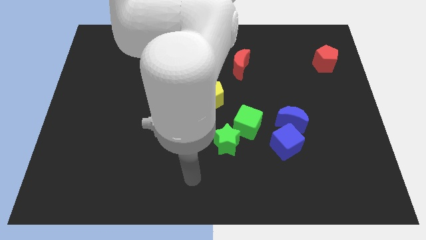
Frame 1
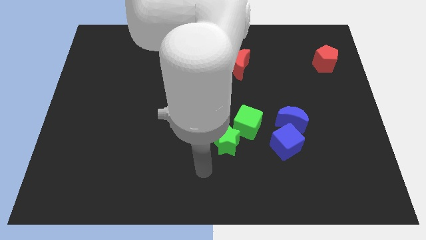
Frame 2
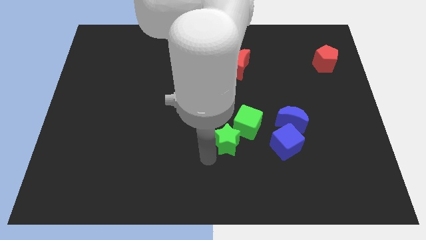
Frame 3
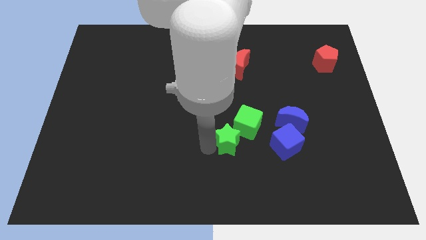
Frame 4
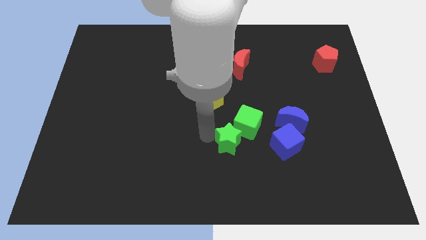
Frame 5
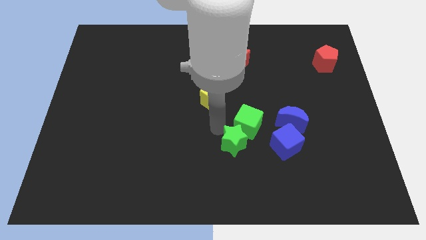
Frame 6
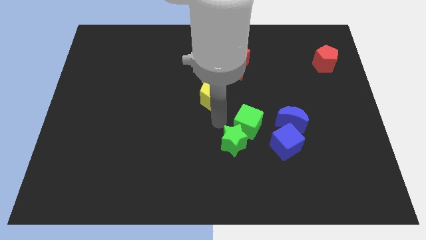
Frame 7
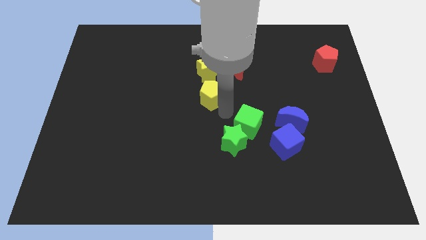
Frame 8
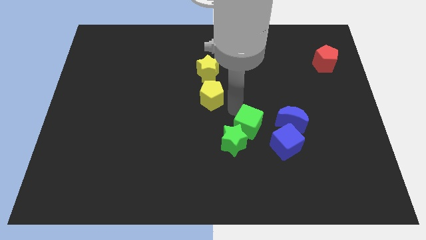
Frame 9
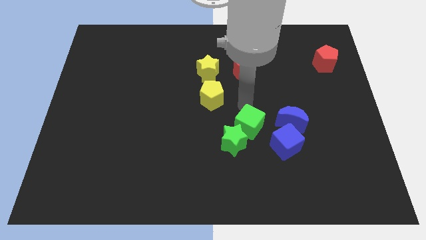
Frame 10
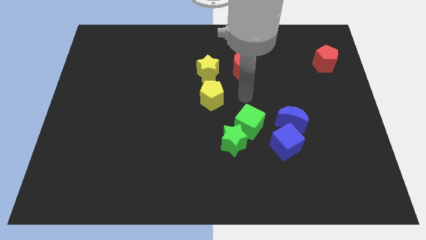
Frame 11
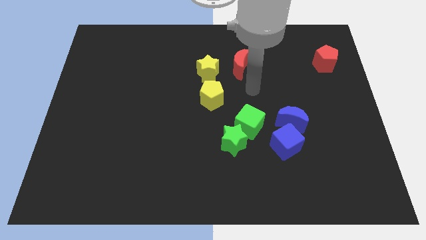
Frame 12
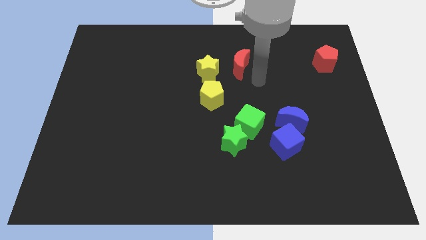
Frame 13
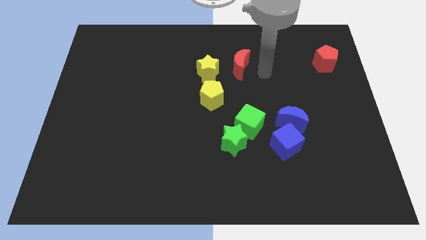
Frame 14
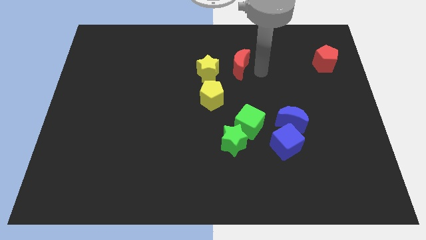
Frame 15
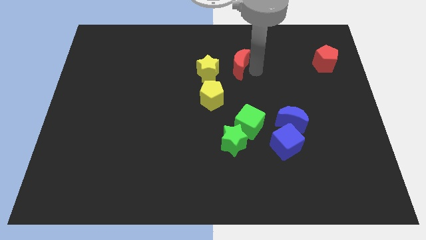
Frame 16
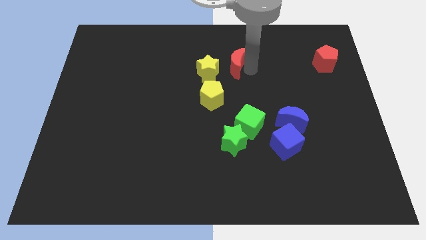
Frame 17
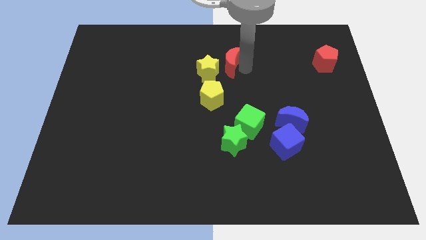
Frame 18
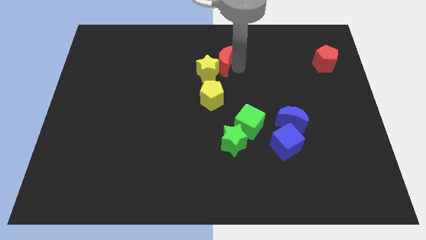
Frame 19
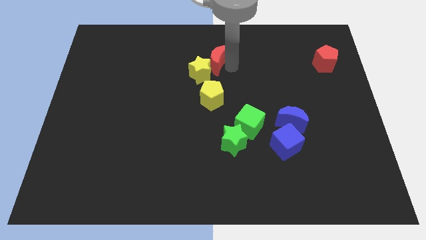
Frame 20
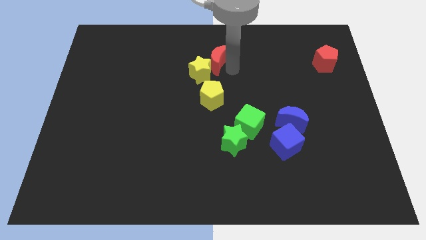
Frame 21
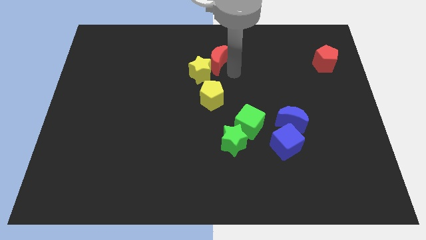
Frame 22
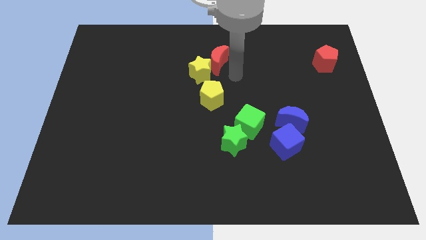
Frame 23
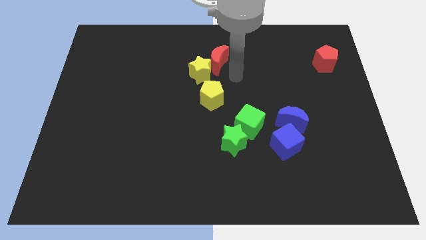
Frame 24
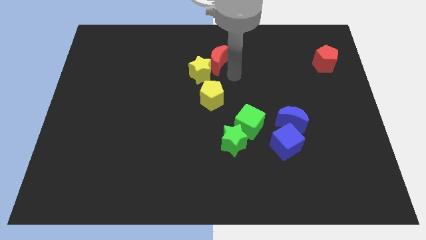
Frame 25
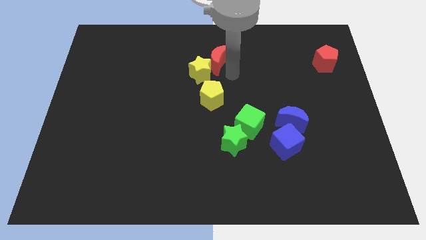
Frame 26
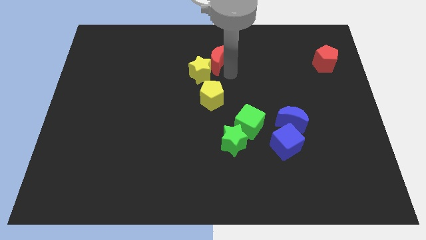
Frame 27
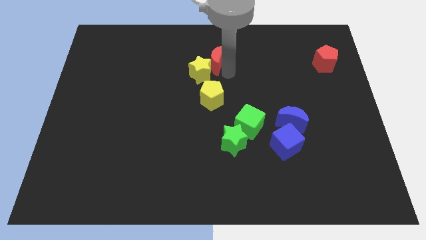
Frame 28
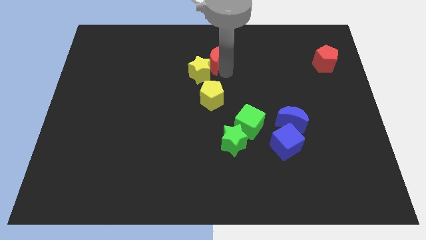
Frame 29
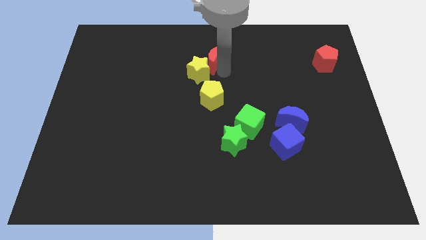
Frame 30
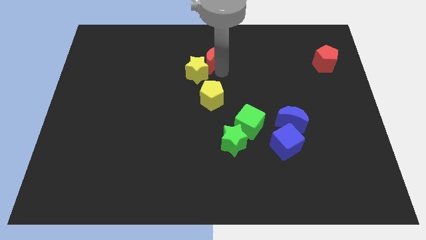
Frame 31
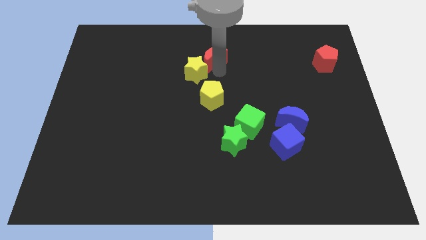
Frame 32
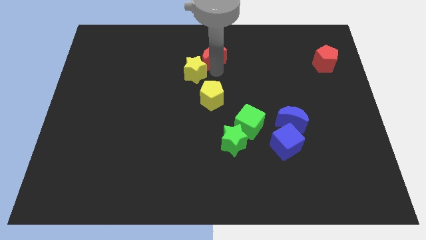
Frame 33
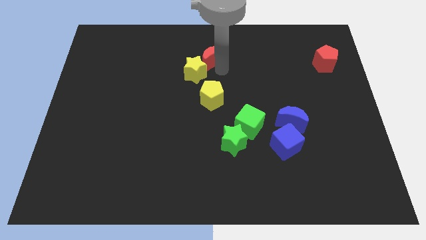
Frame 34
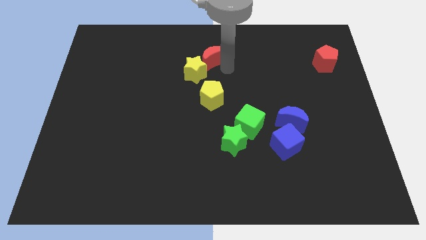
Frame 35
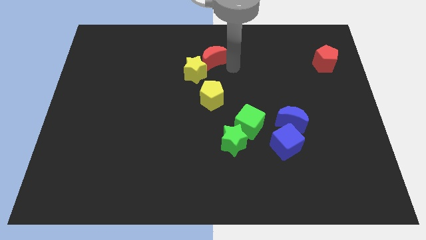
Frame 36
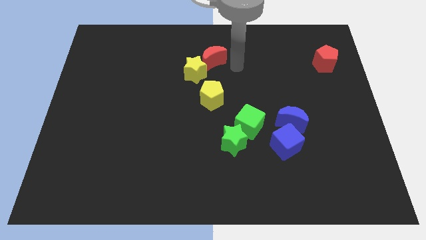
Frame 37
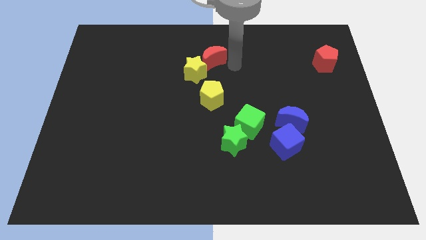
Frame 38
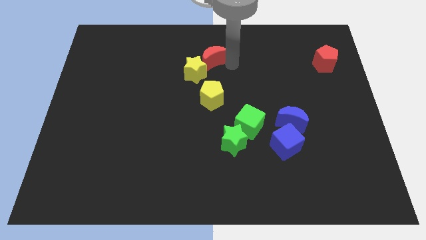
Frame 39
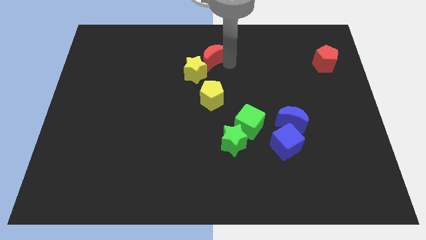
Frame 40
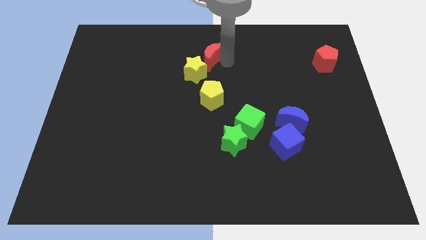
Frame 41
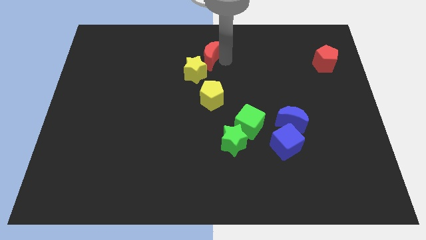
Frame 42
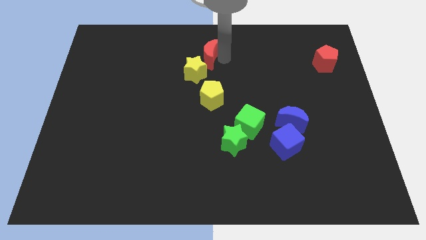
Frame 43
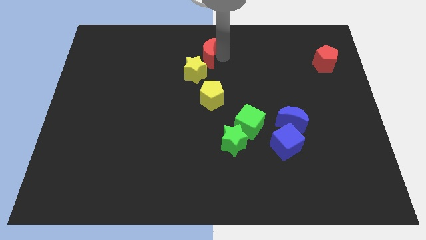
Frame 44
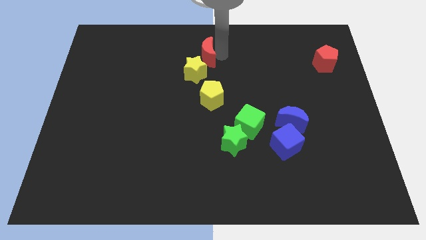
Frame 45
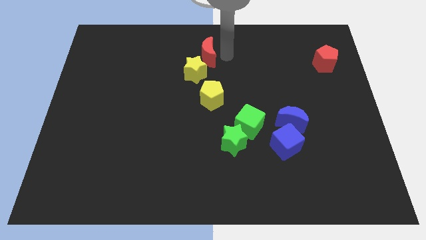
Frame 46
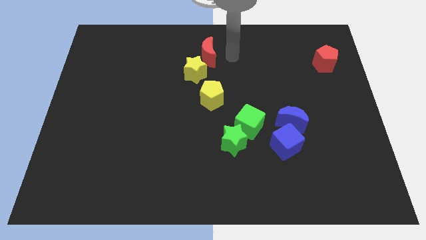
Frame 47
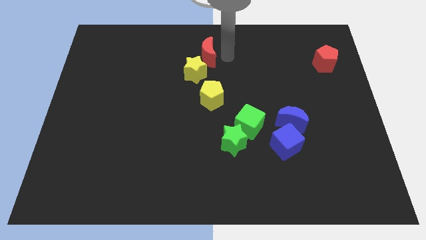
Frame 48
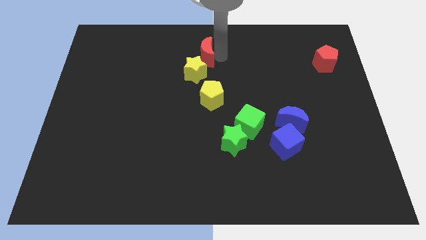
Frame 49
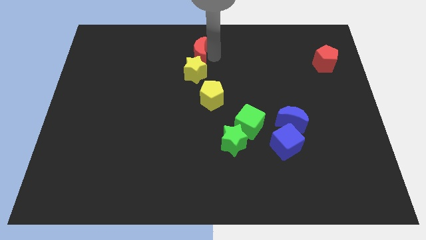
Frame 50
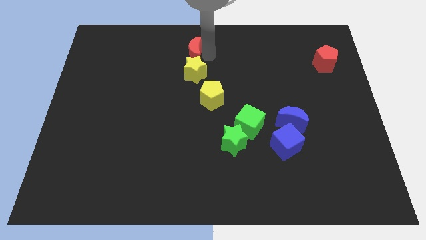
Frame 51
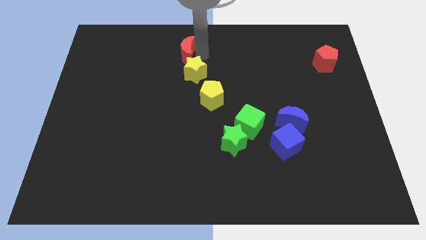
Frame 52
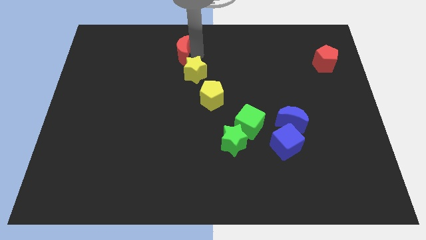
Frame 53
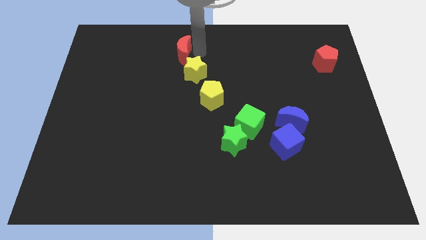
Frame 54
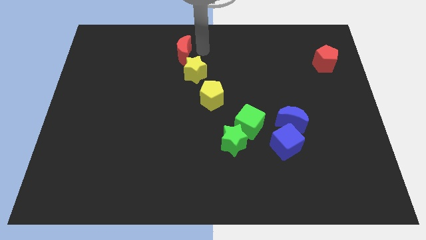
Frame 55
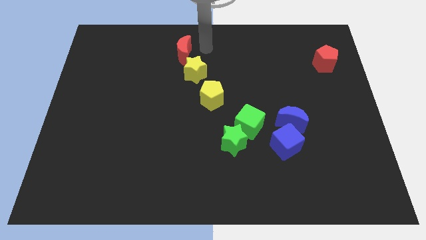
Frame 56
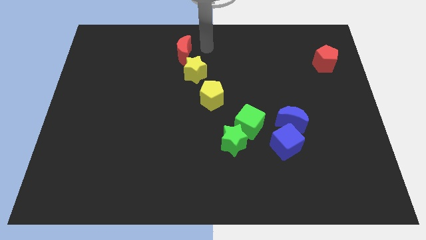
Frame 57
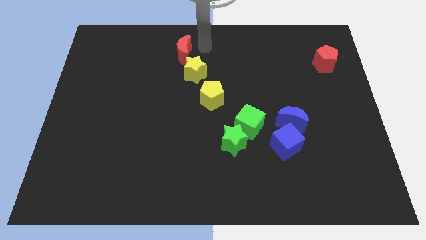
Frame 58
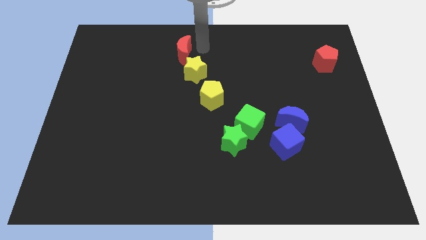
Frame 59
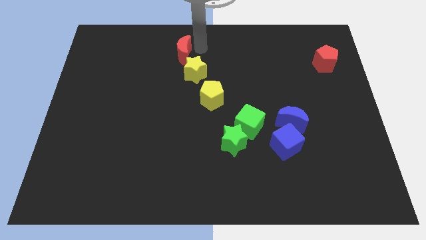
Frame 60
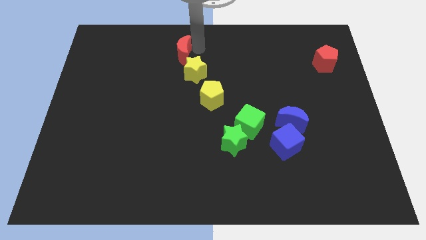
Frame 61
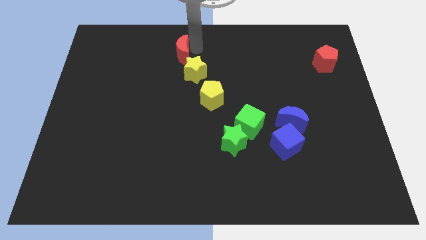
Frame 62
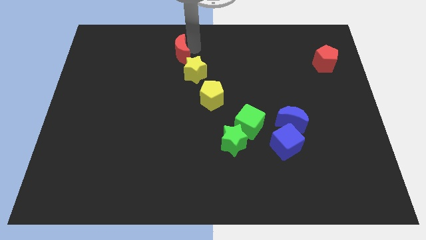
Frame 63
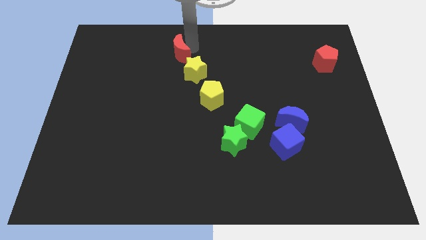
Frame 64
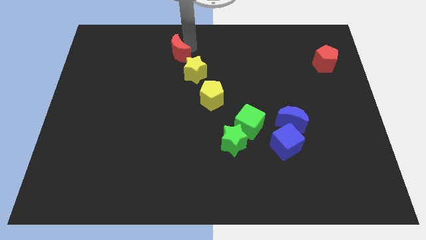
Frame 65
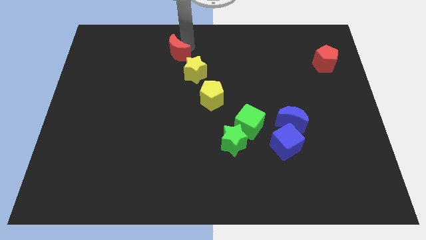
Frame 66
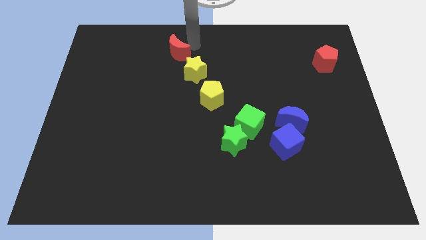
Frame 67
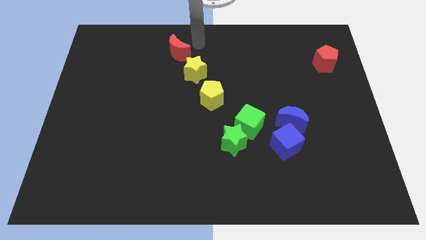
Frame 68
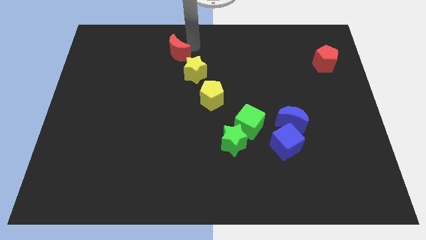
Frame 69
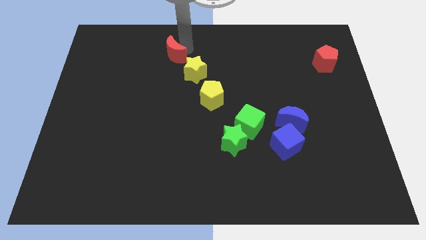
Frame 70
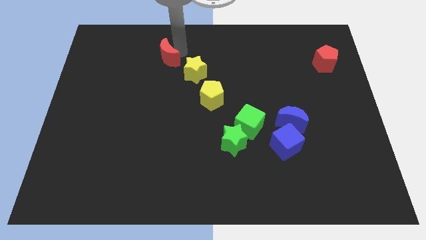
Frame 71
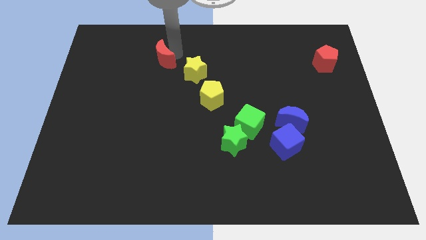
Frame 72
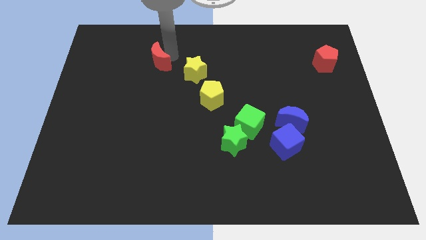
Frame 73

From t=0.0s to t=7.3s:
move the red moon to the left

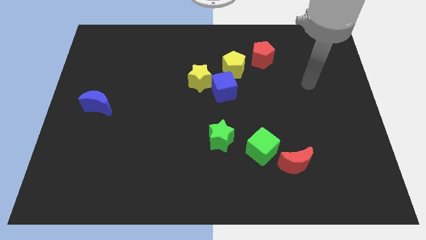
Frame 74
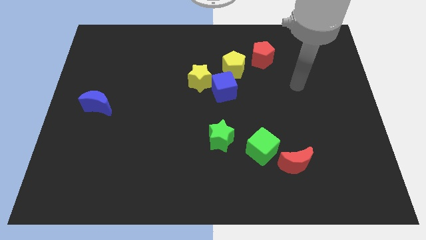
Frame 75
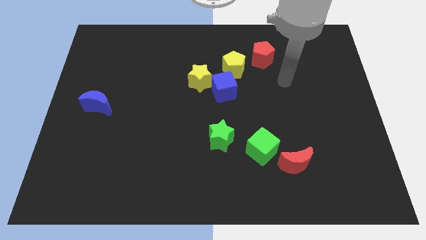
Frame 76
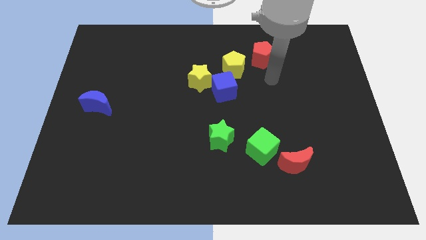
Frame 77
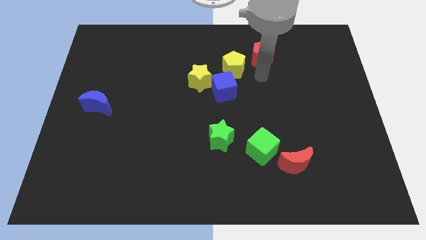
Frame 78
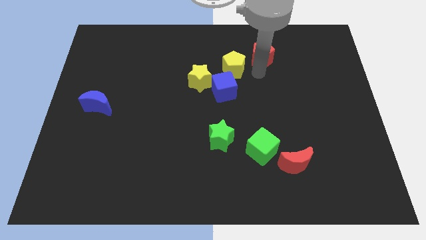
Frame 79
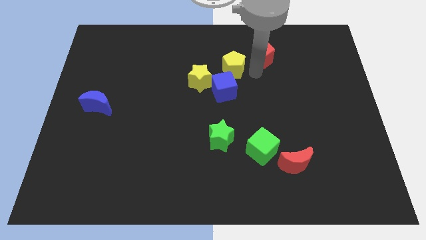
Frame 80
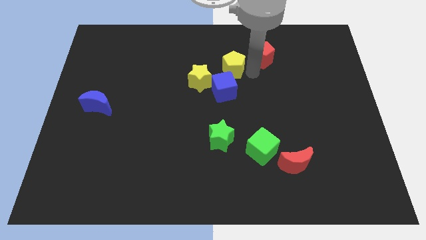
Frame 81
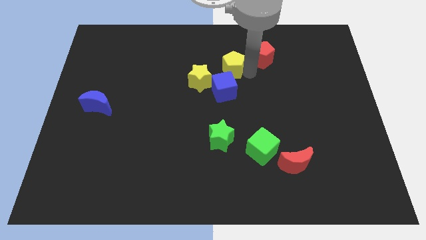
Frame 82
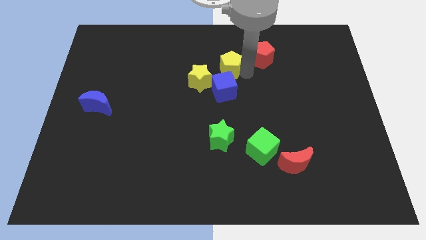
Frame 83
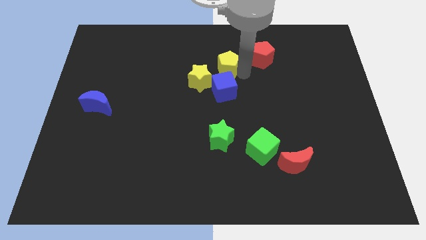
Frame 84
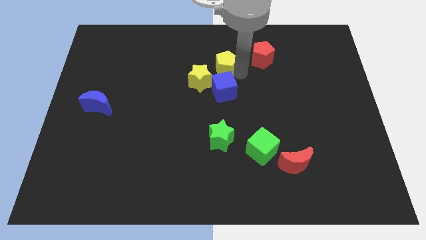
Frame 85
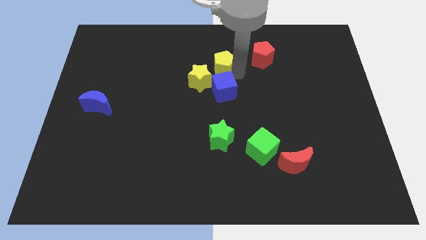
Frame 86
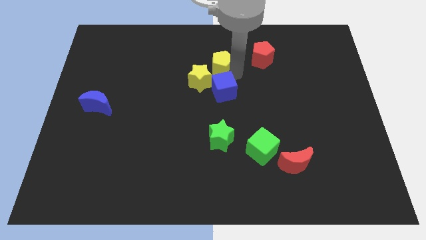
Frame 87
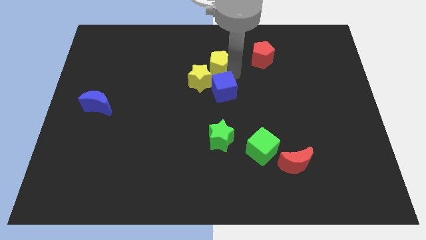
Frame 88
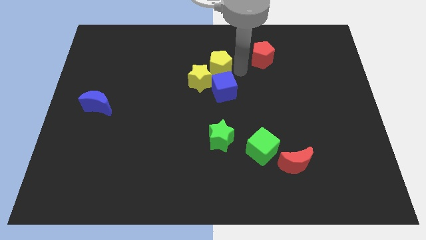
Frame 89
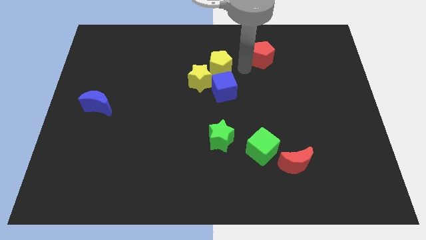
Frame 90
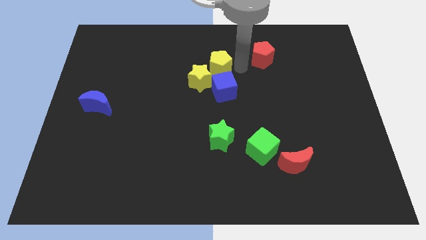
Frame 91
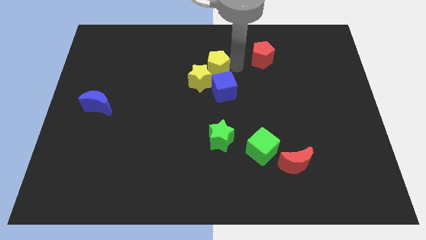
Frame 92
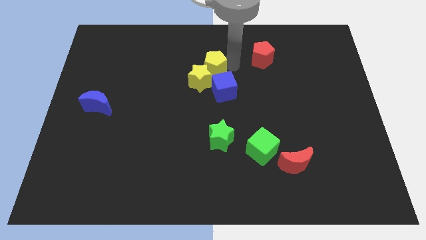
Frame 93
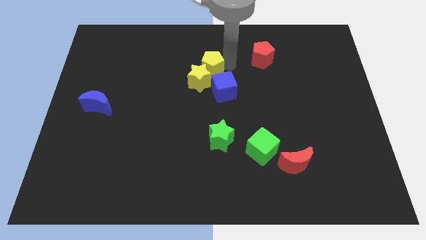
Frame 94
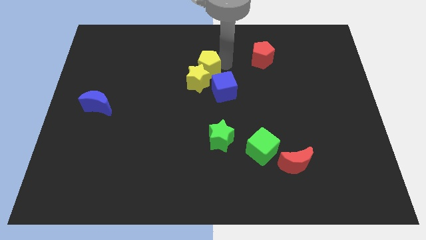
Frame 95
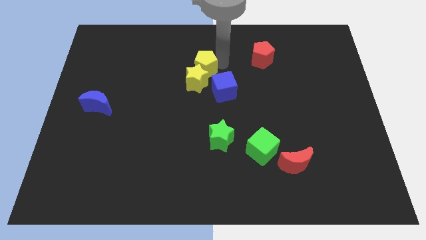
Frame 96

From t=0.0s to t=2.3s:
slide the yellow pentagon a little left
